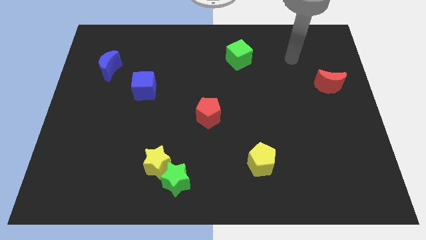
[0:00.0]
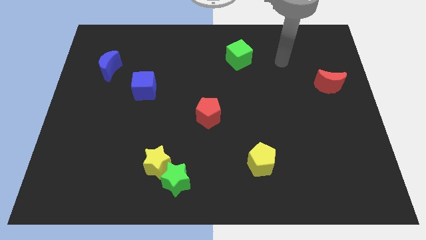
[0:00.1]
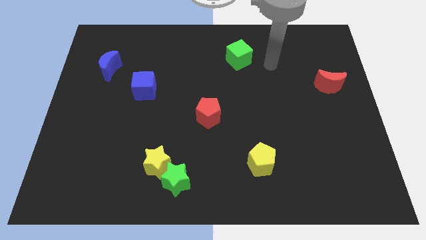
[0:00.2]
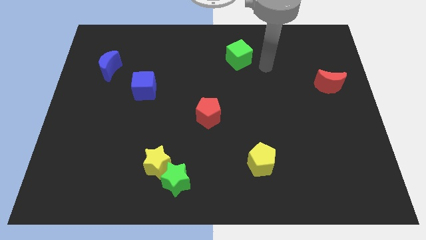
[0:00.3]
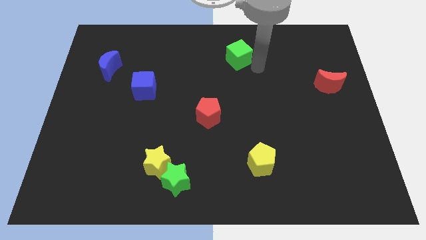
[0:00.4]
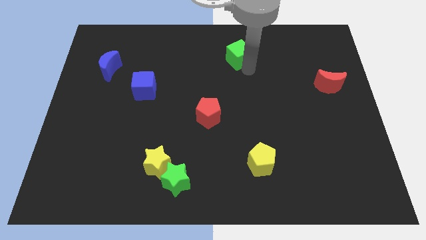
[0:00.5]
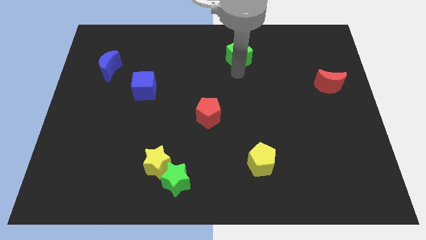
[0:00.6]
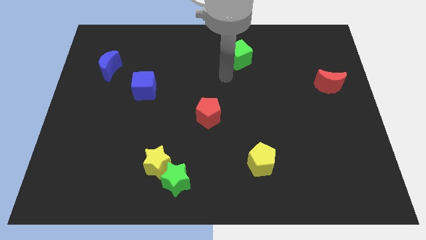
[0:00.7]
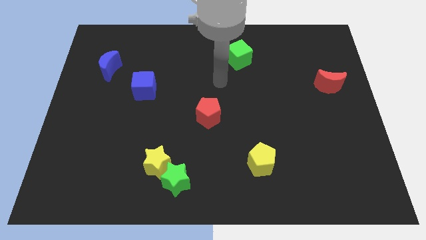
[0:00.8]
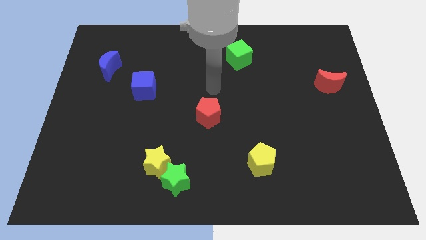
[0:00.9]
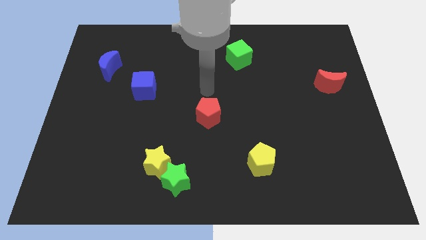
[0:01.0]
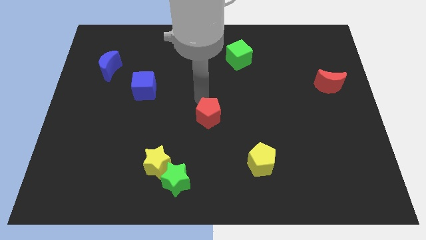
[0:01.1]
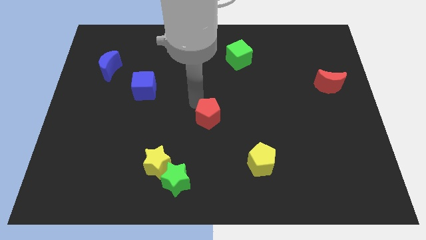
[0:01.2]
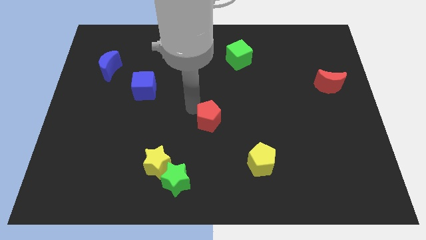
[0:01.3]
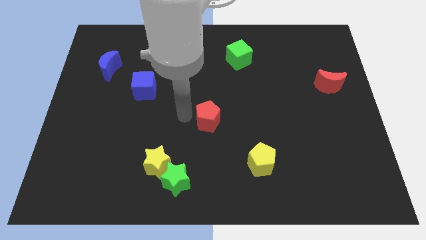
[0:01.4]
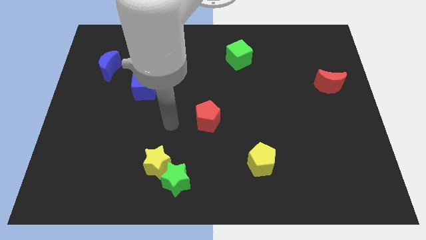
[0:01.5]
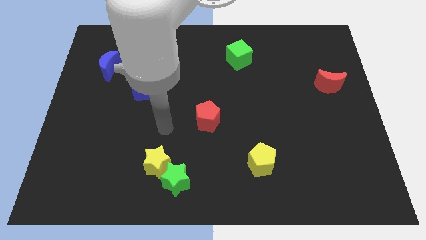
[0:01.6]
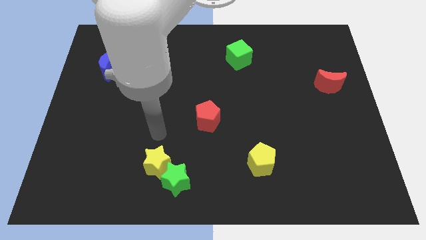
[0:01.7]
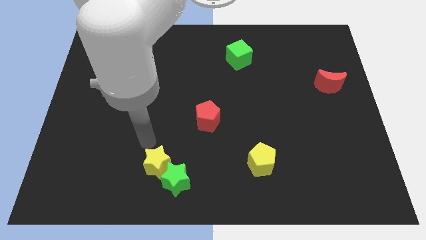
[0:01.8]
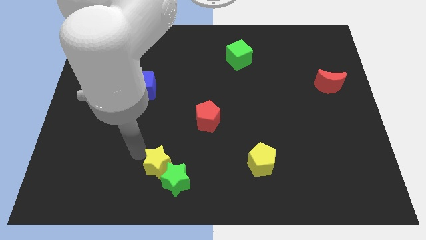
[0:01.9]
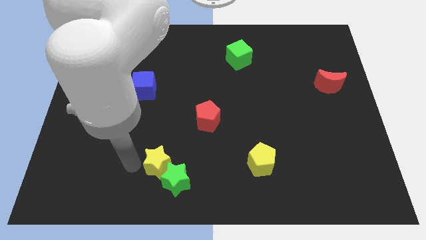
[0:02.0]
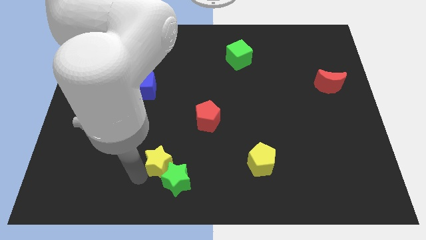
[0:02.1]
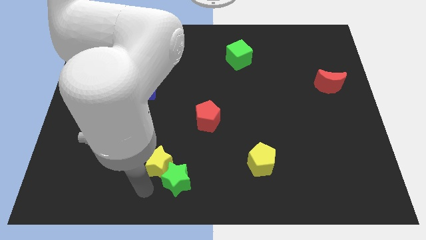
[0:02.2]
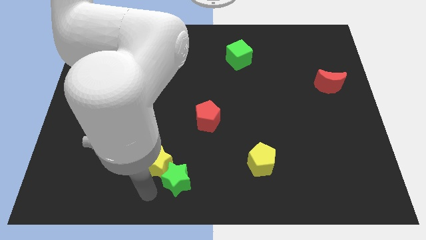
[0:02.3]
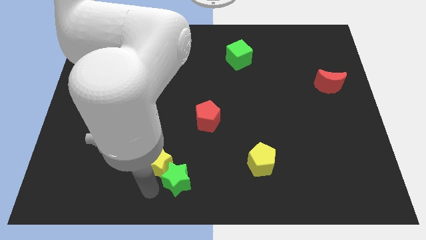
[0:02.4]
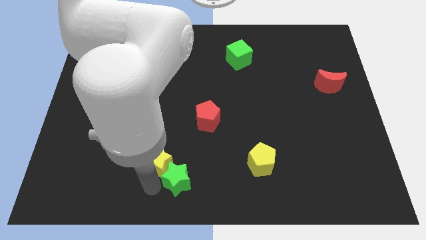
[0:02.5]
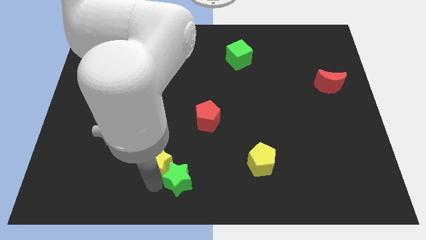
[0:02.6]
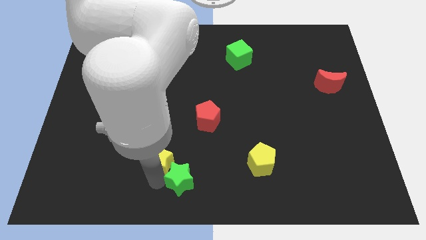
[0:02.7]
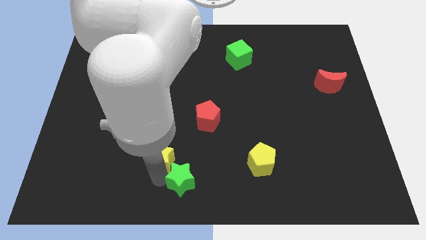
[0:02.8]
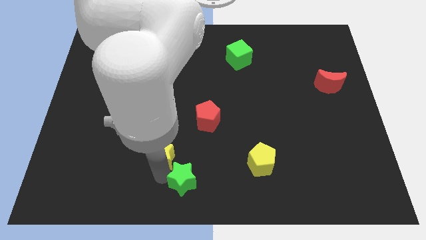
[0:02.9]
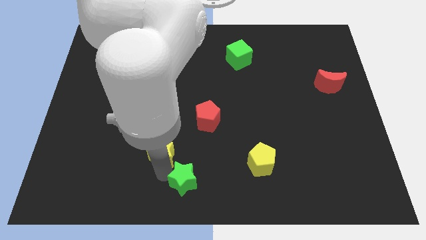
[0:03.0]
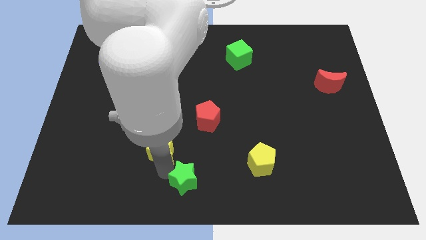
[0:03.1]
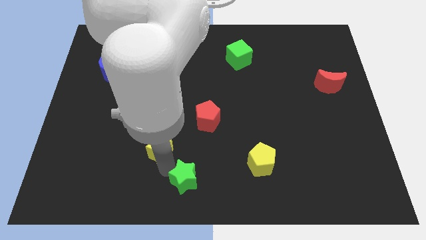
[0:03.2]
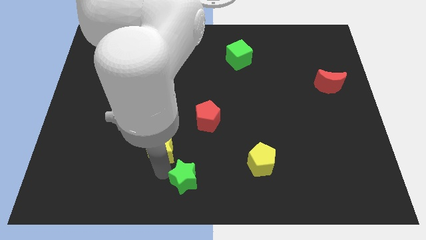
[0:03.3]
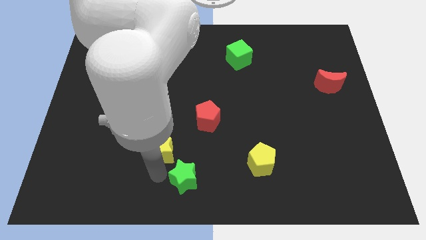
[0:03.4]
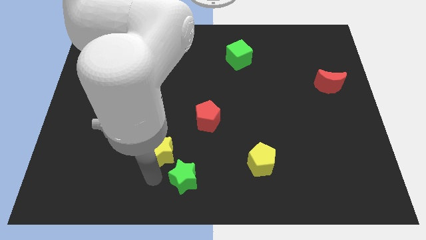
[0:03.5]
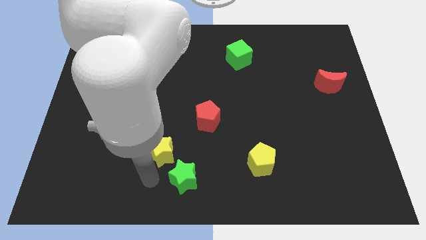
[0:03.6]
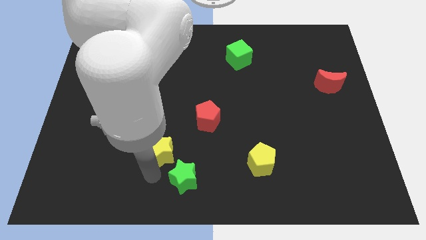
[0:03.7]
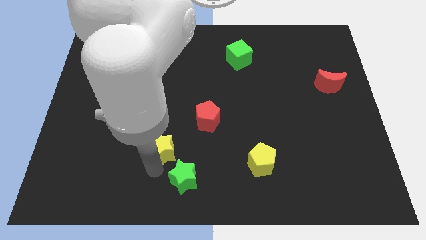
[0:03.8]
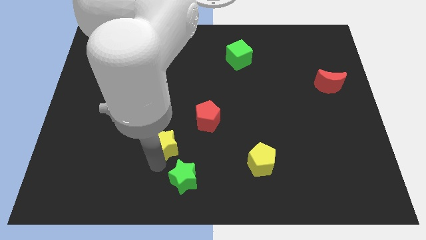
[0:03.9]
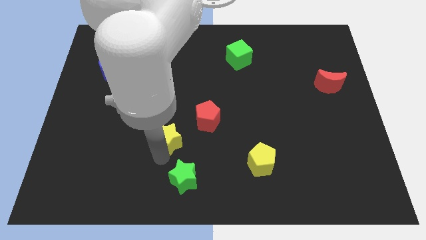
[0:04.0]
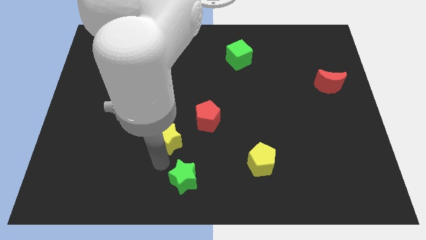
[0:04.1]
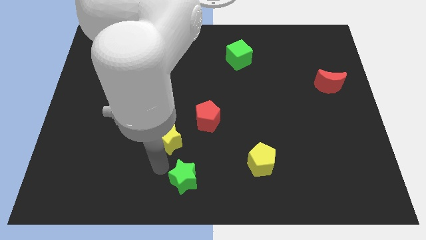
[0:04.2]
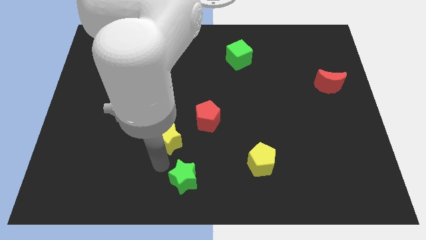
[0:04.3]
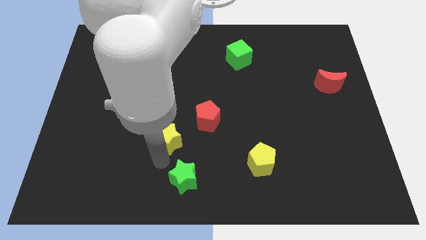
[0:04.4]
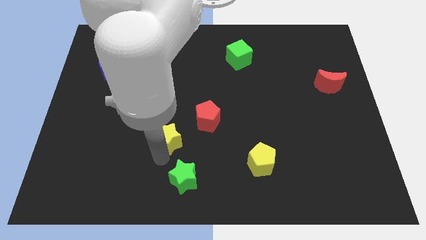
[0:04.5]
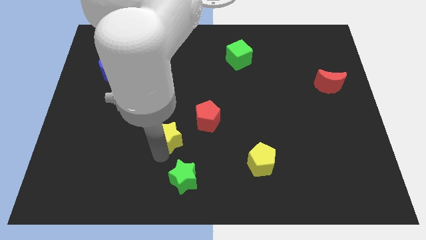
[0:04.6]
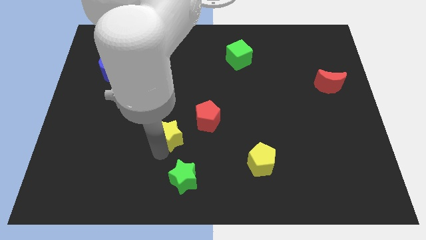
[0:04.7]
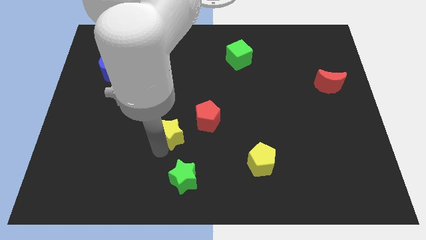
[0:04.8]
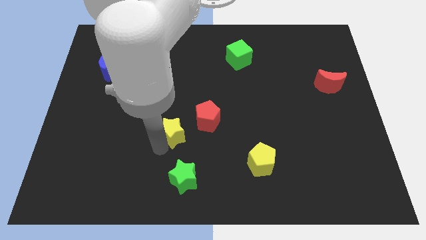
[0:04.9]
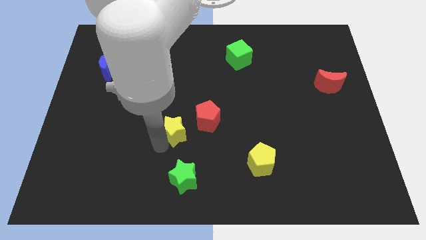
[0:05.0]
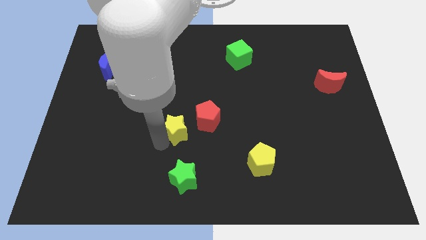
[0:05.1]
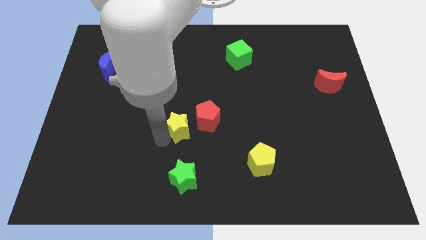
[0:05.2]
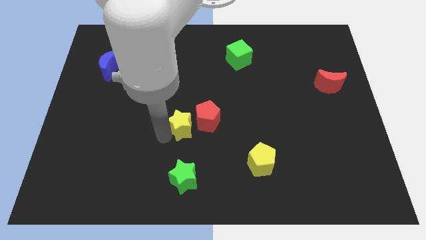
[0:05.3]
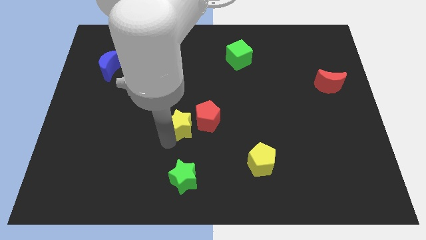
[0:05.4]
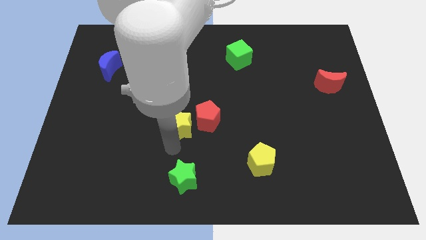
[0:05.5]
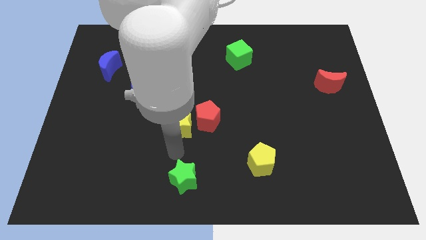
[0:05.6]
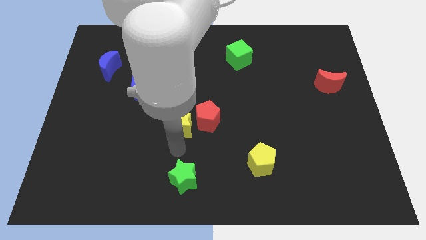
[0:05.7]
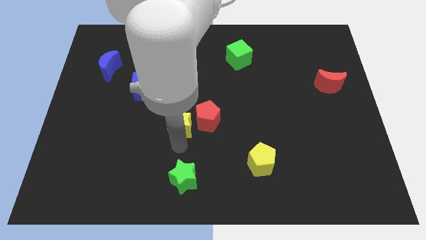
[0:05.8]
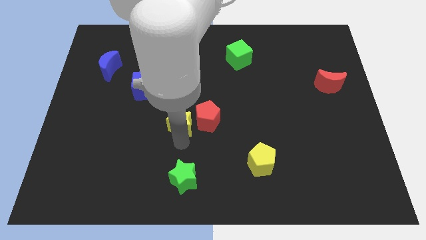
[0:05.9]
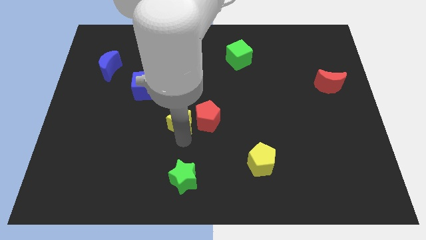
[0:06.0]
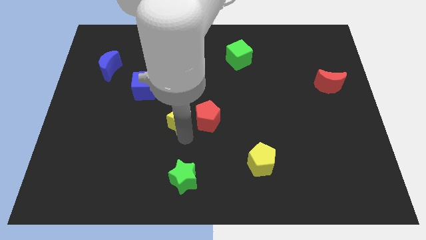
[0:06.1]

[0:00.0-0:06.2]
move the yellow star diagonally up and to the left of the red pentagon

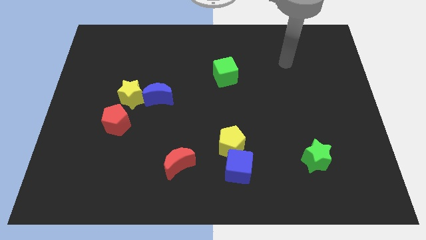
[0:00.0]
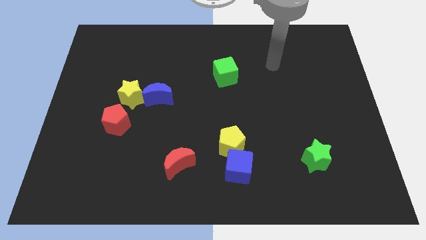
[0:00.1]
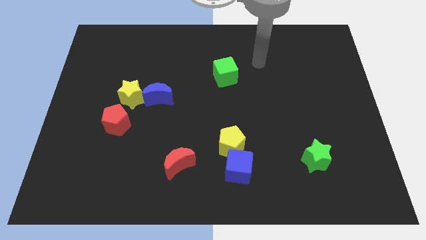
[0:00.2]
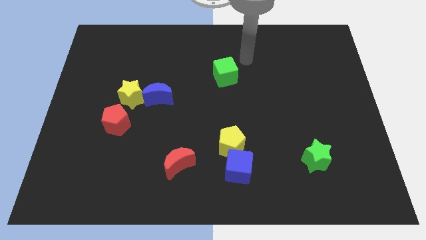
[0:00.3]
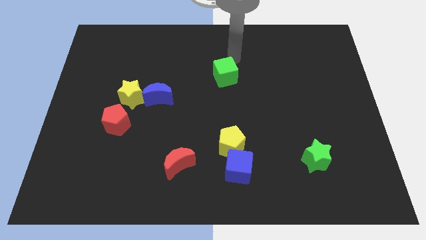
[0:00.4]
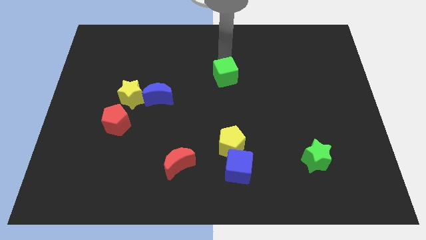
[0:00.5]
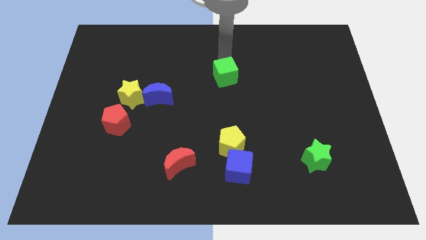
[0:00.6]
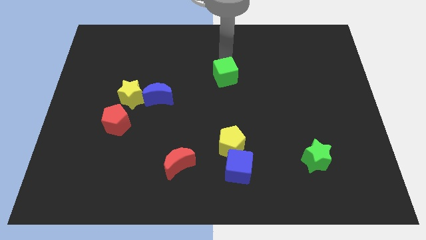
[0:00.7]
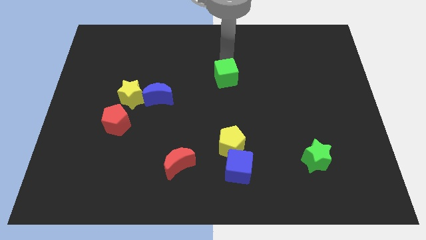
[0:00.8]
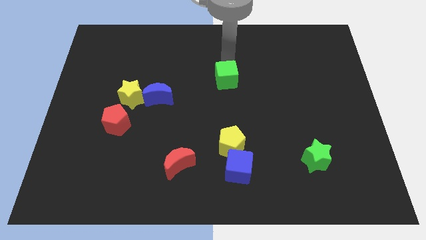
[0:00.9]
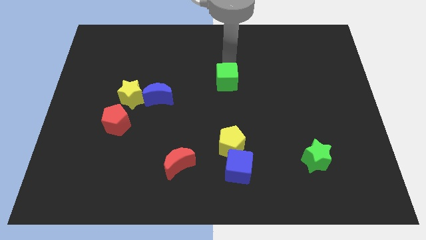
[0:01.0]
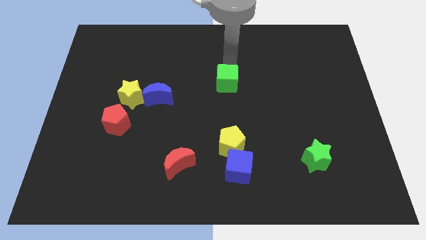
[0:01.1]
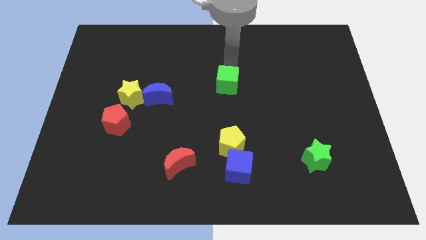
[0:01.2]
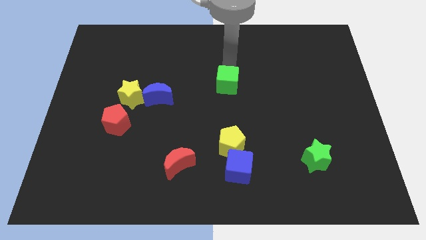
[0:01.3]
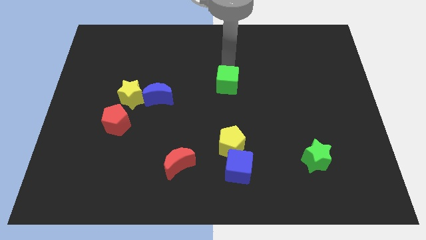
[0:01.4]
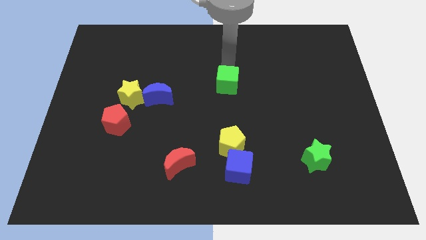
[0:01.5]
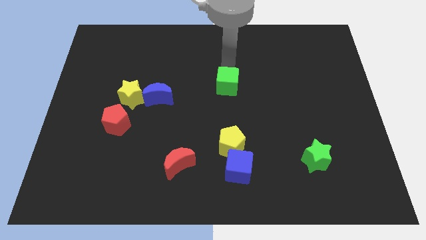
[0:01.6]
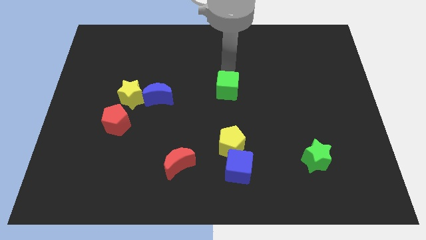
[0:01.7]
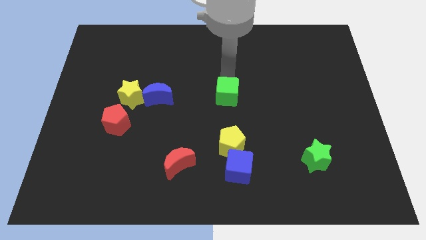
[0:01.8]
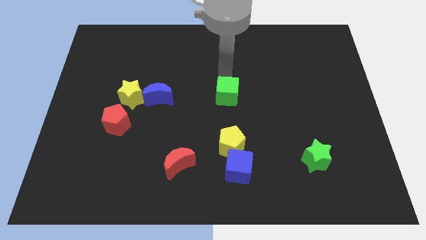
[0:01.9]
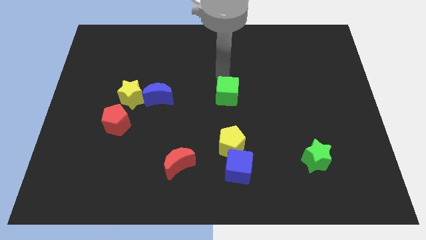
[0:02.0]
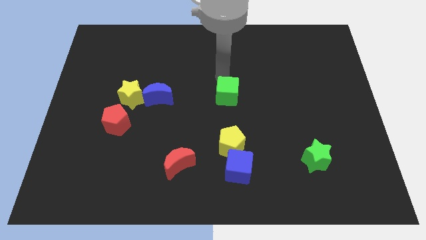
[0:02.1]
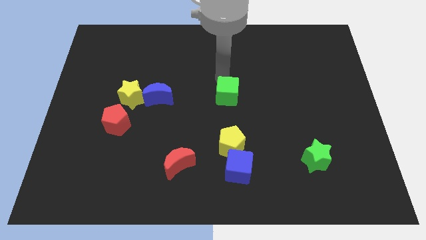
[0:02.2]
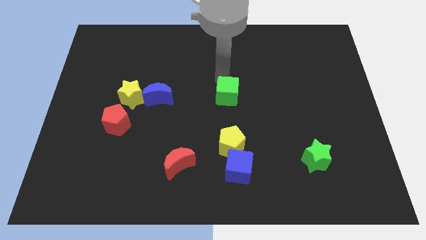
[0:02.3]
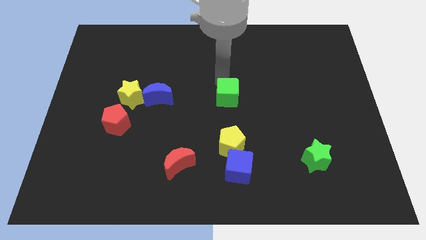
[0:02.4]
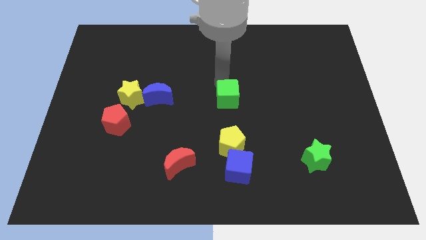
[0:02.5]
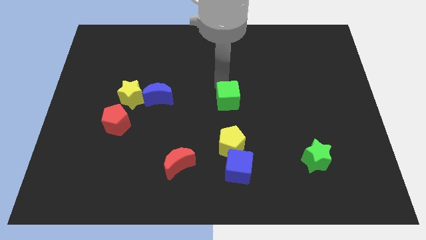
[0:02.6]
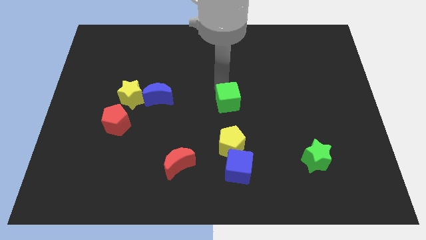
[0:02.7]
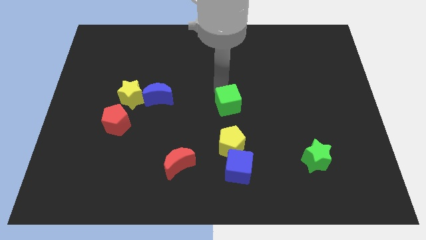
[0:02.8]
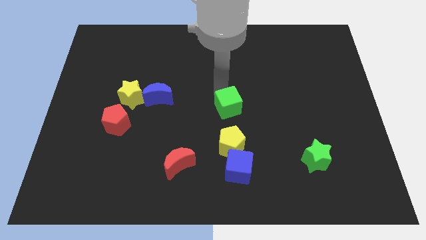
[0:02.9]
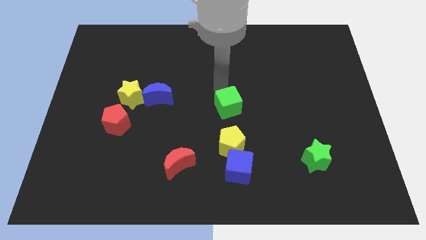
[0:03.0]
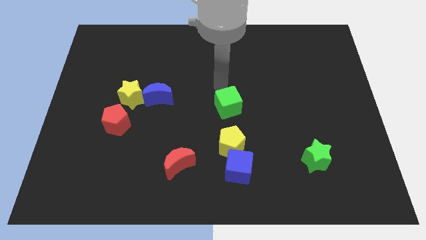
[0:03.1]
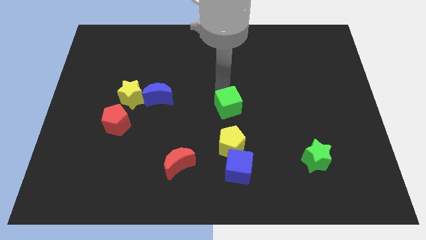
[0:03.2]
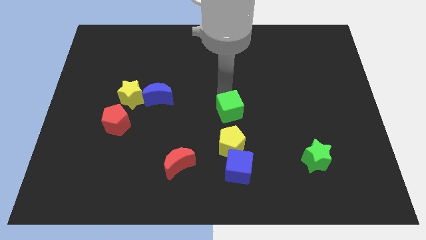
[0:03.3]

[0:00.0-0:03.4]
move the green cube to the top side of the blue cube
